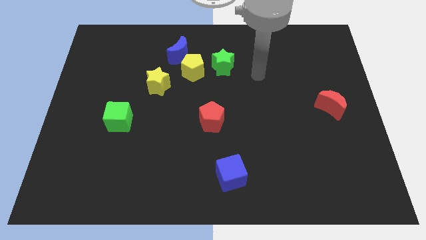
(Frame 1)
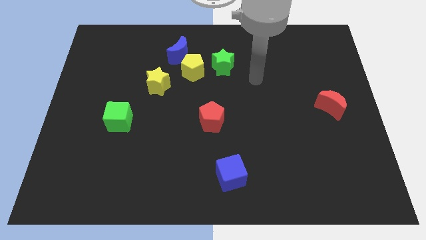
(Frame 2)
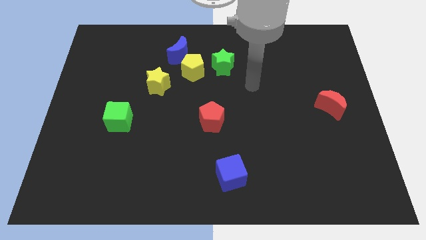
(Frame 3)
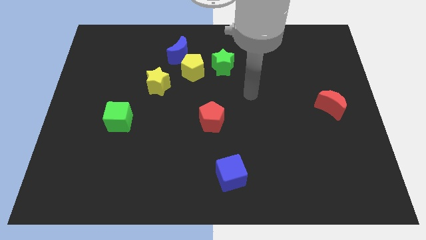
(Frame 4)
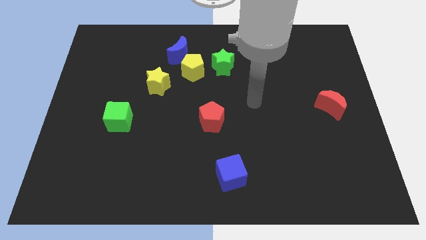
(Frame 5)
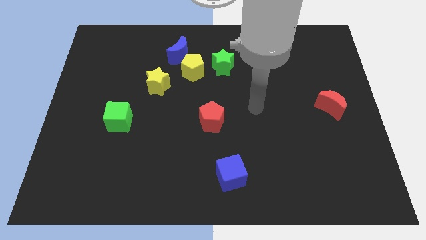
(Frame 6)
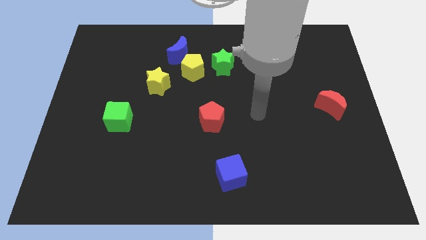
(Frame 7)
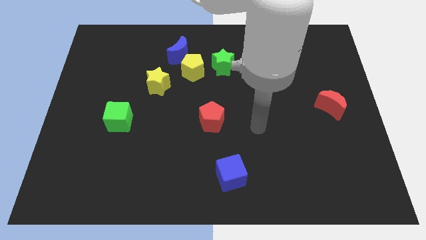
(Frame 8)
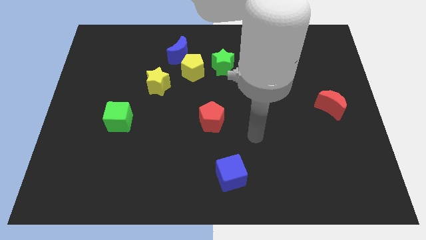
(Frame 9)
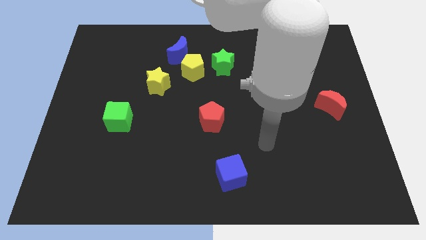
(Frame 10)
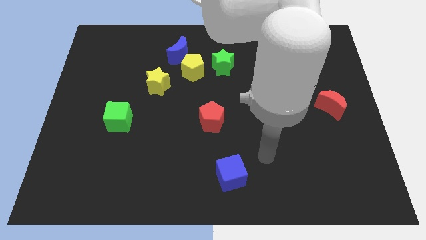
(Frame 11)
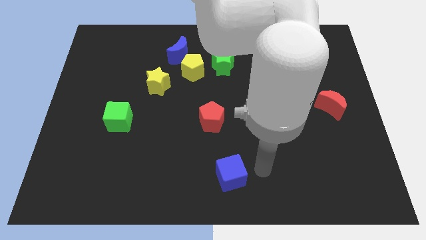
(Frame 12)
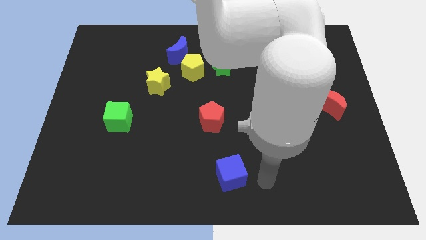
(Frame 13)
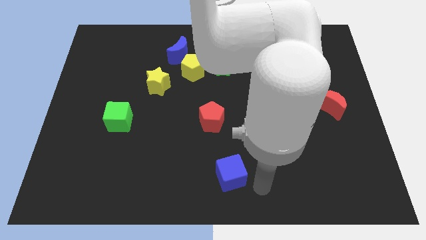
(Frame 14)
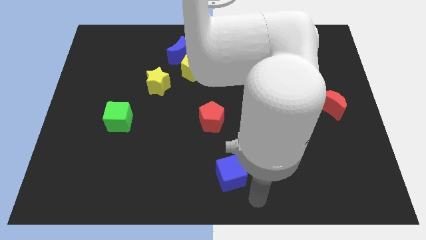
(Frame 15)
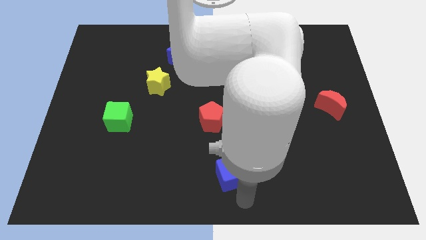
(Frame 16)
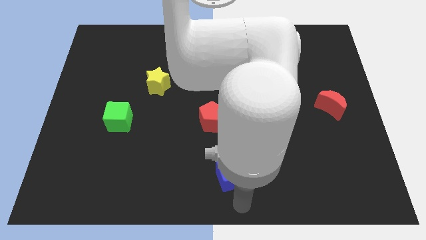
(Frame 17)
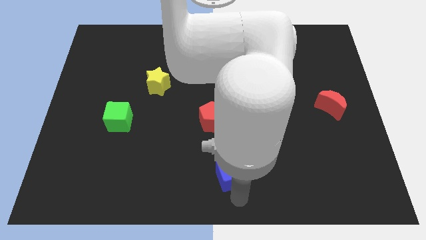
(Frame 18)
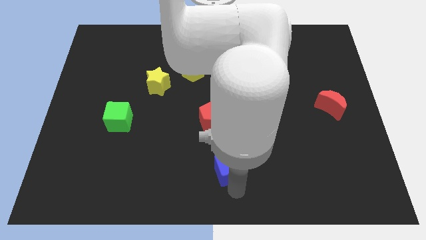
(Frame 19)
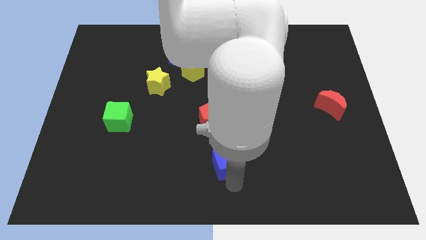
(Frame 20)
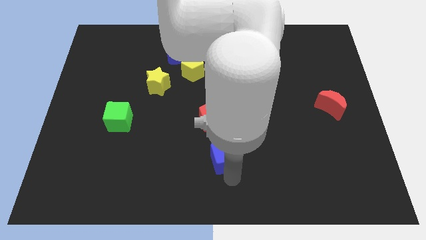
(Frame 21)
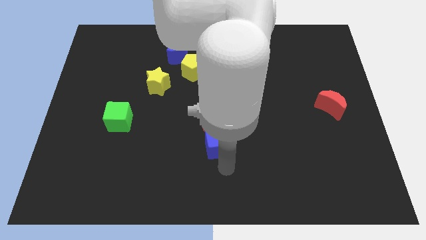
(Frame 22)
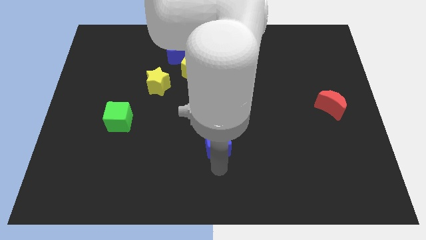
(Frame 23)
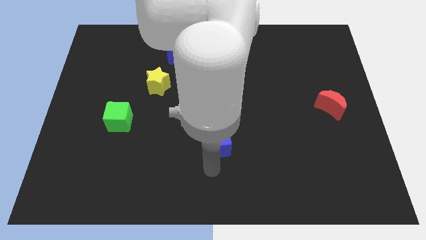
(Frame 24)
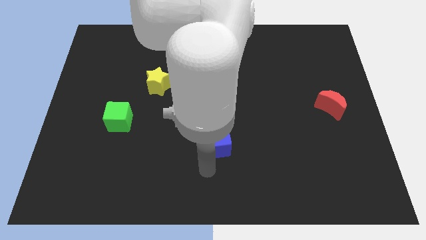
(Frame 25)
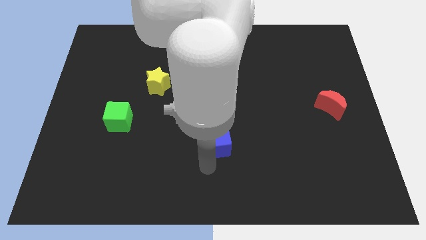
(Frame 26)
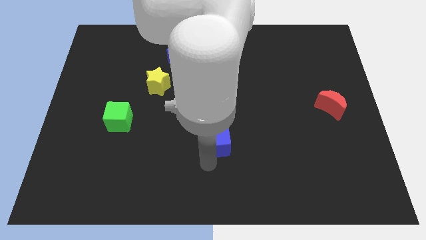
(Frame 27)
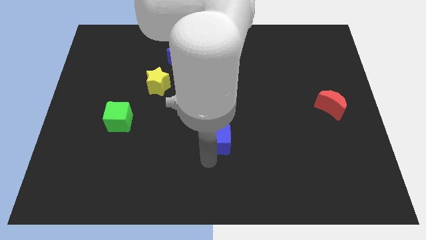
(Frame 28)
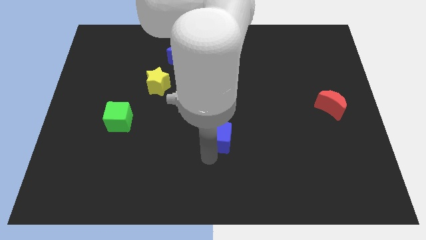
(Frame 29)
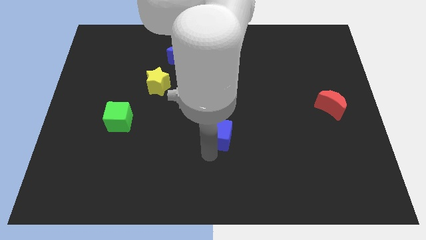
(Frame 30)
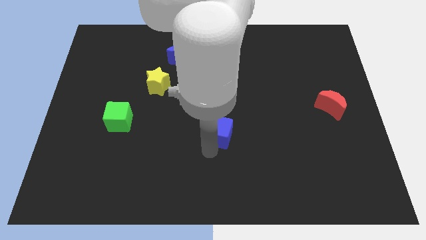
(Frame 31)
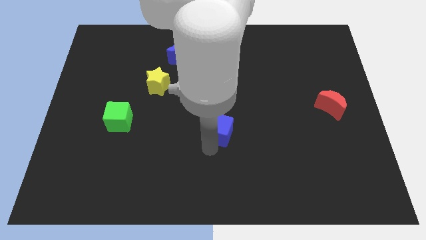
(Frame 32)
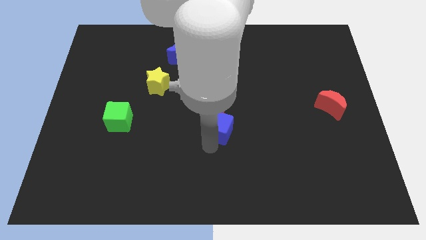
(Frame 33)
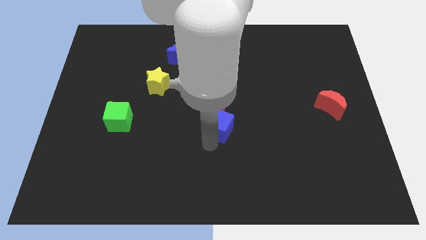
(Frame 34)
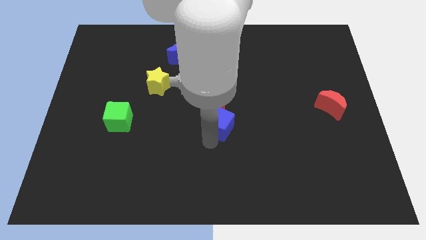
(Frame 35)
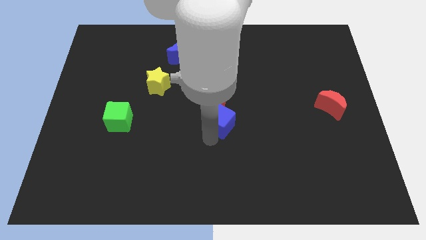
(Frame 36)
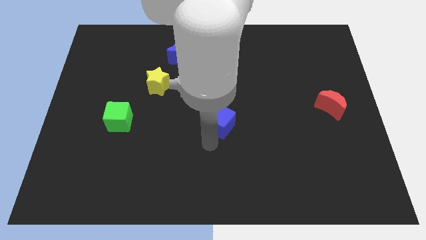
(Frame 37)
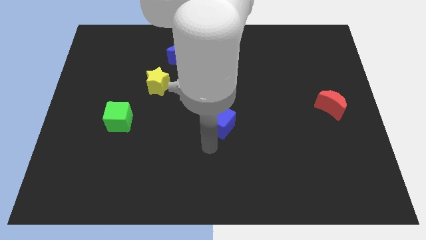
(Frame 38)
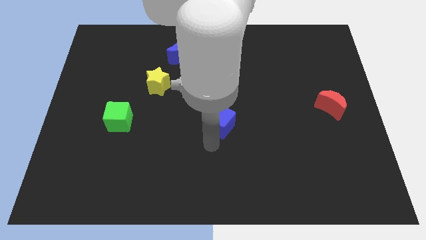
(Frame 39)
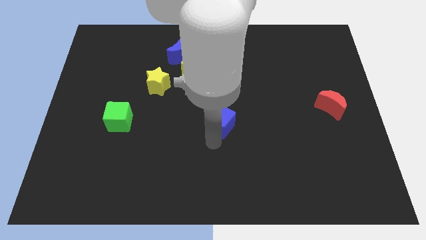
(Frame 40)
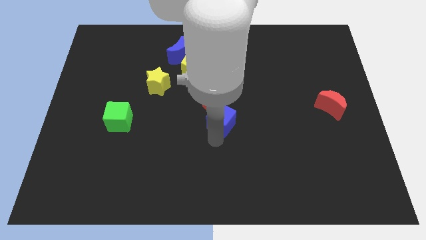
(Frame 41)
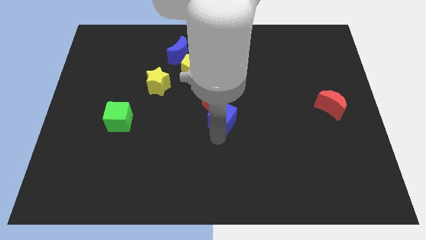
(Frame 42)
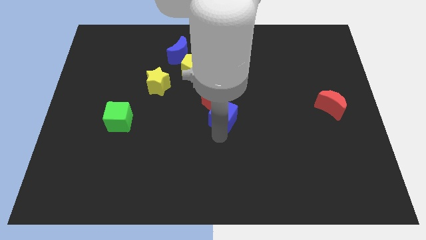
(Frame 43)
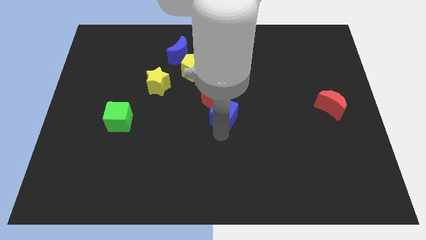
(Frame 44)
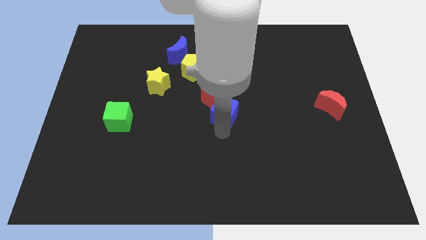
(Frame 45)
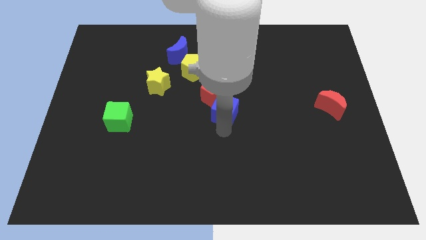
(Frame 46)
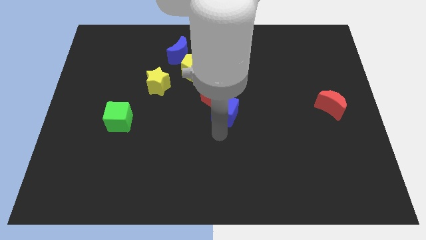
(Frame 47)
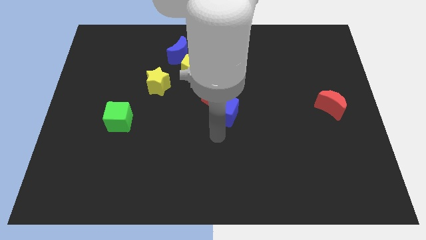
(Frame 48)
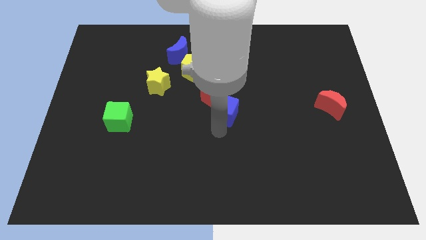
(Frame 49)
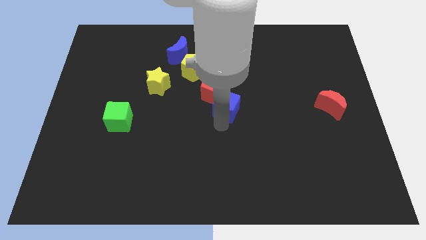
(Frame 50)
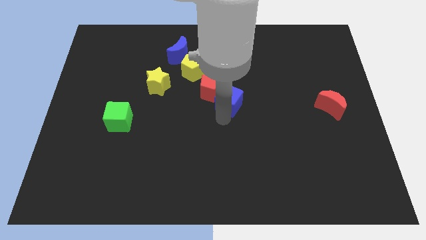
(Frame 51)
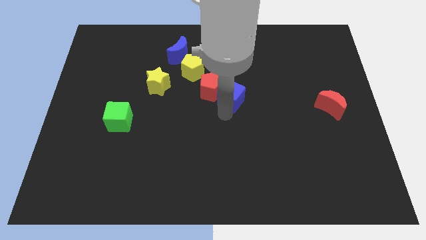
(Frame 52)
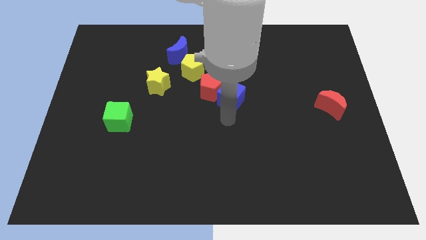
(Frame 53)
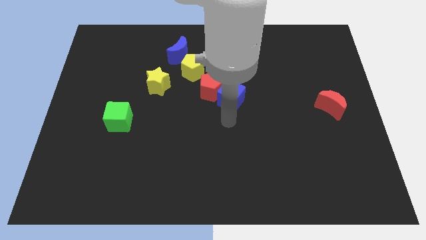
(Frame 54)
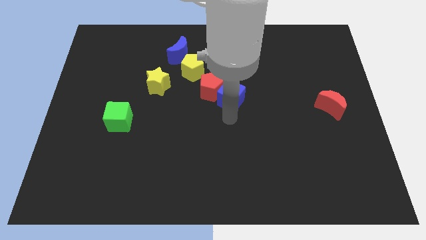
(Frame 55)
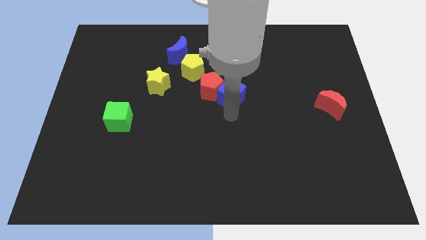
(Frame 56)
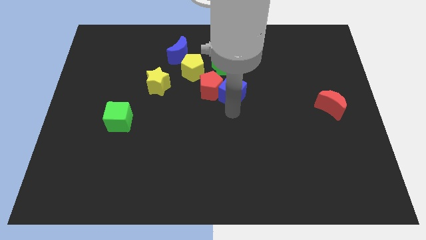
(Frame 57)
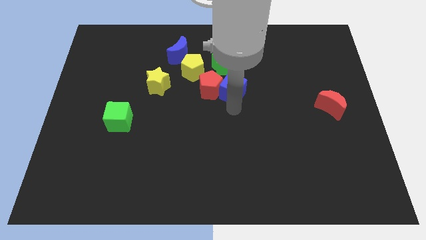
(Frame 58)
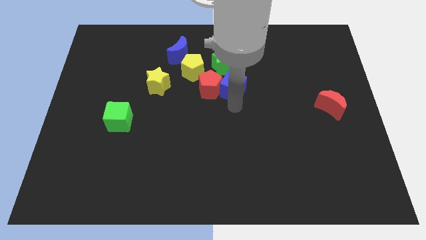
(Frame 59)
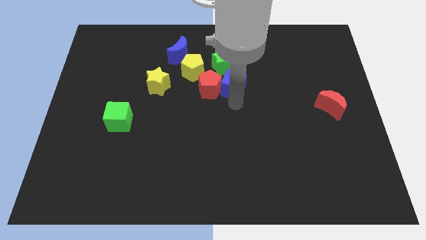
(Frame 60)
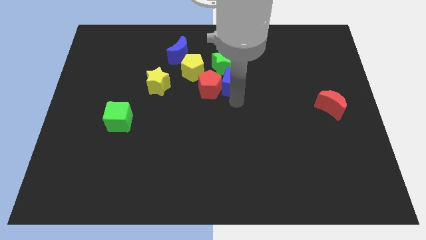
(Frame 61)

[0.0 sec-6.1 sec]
slide the blue cube to the right side of the yellow pentagon

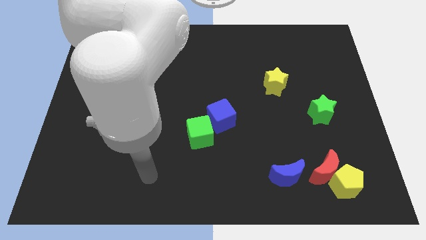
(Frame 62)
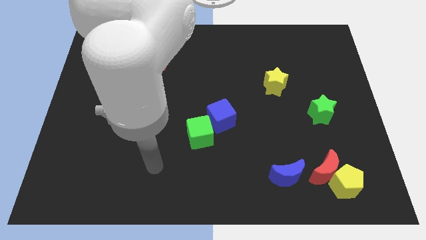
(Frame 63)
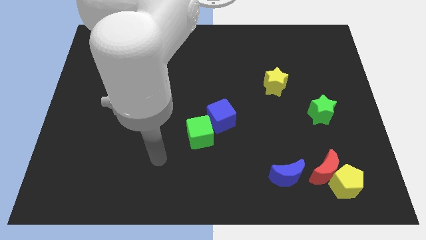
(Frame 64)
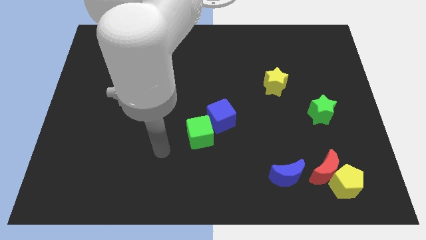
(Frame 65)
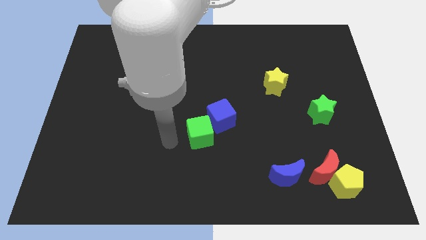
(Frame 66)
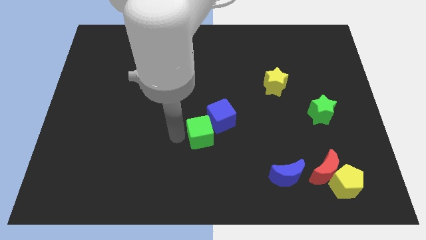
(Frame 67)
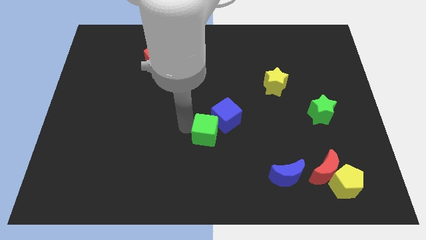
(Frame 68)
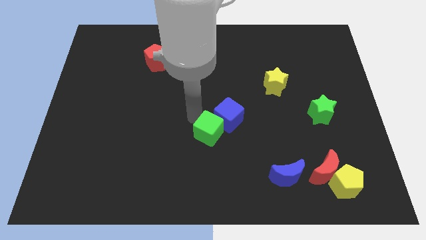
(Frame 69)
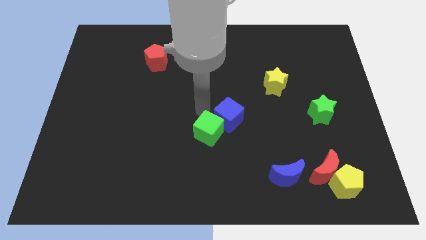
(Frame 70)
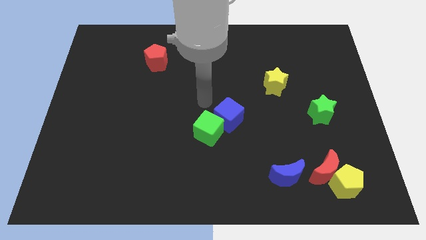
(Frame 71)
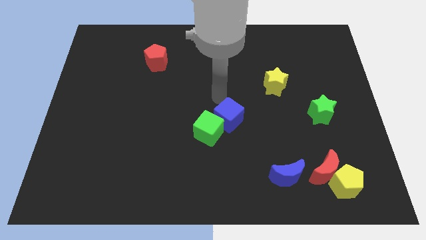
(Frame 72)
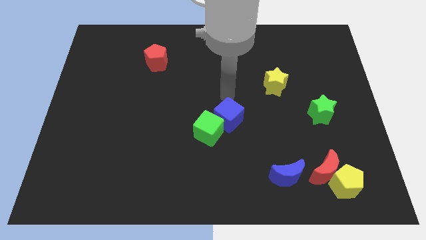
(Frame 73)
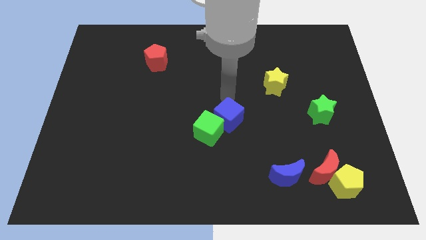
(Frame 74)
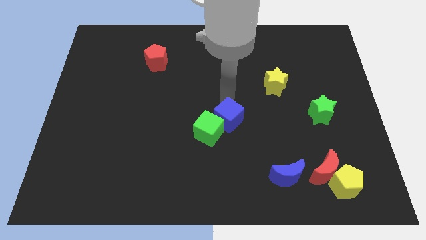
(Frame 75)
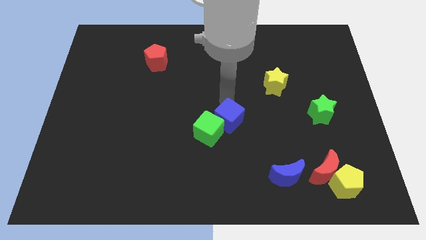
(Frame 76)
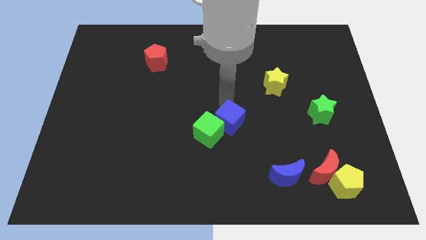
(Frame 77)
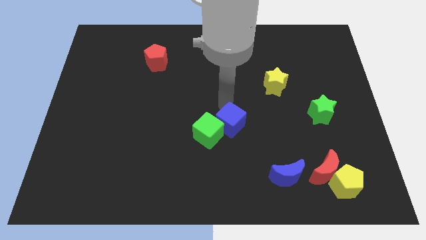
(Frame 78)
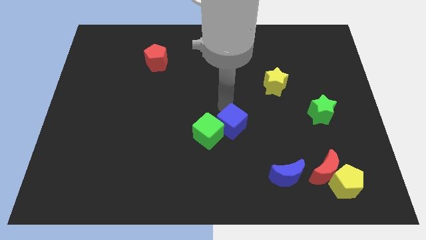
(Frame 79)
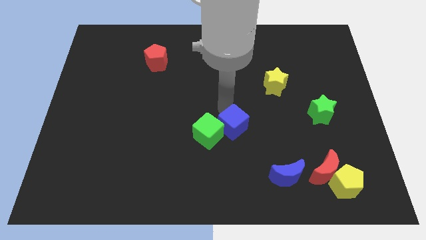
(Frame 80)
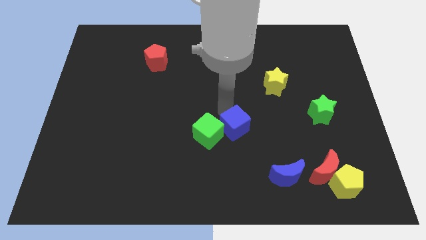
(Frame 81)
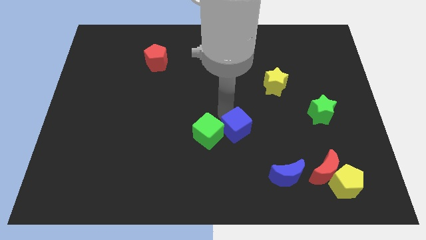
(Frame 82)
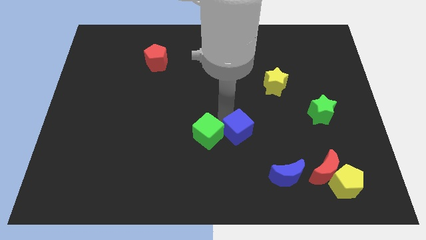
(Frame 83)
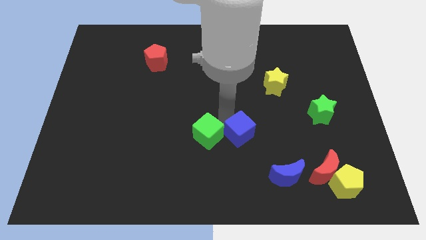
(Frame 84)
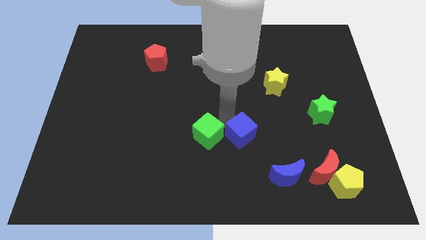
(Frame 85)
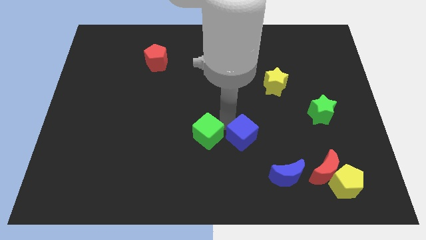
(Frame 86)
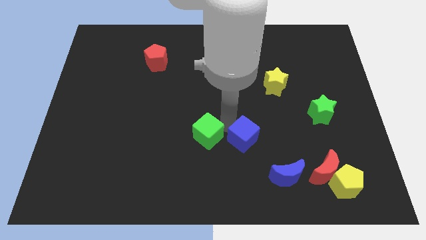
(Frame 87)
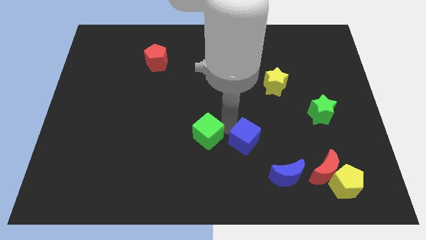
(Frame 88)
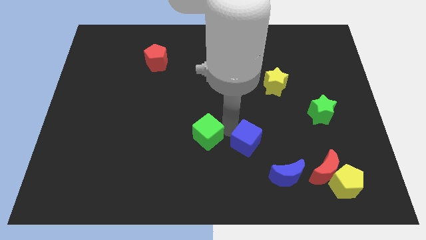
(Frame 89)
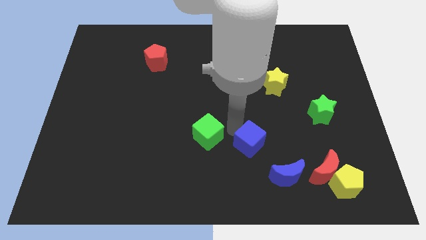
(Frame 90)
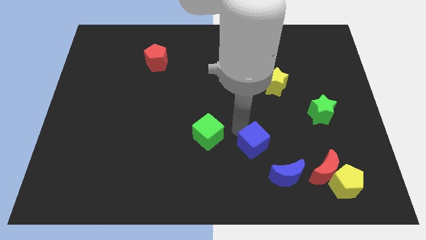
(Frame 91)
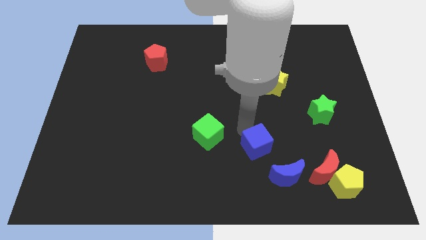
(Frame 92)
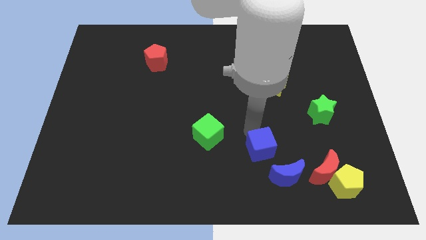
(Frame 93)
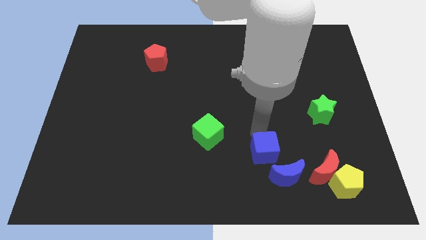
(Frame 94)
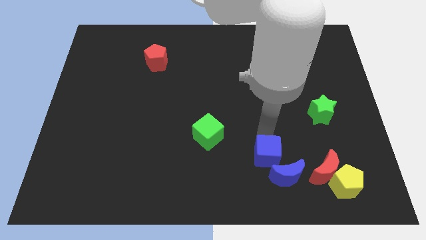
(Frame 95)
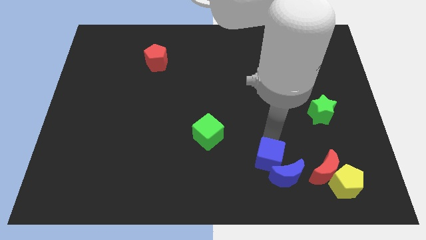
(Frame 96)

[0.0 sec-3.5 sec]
slide the blue cube just left of the blue moon
